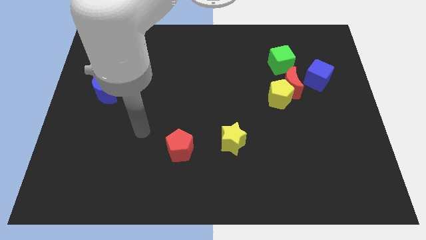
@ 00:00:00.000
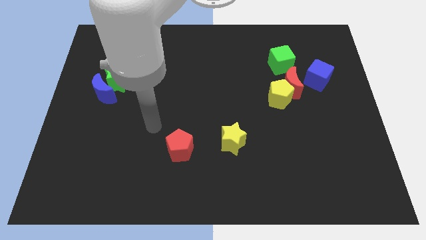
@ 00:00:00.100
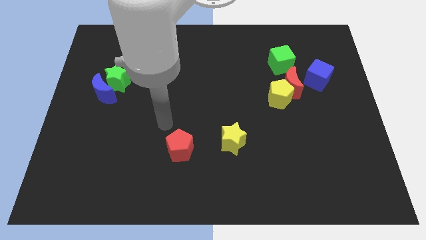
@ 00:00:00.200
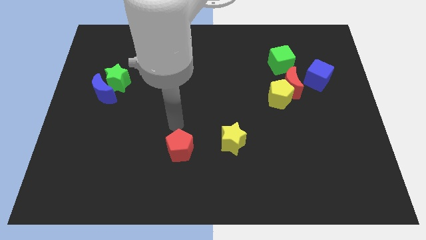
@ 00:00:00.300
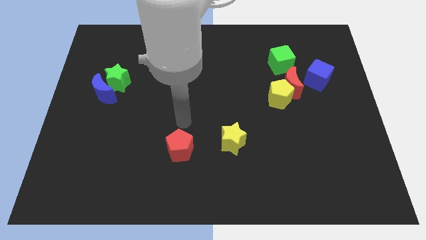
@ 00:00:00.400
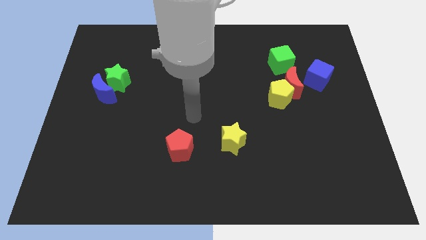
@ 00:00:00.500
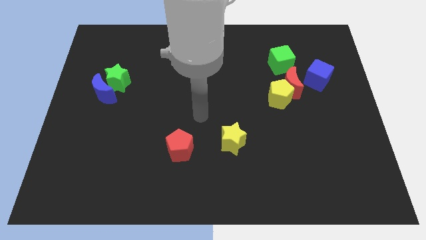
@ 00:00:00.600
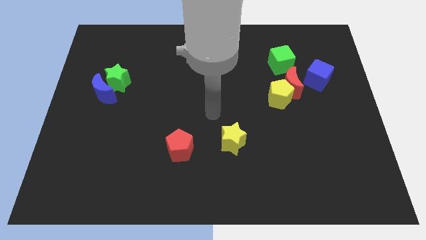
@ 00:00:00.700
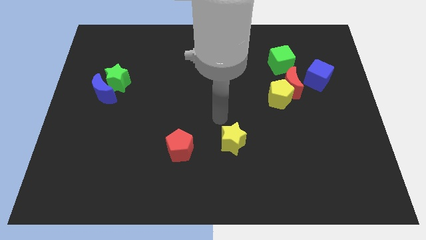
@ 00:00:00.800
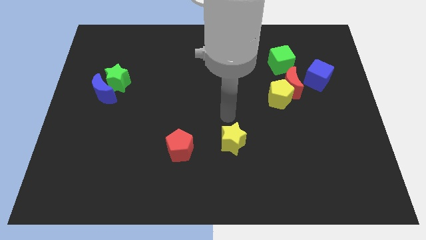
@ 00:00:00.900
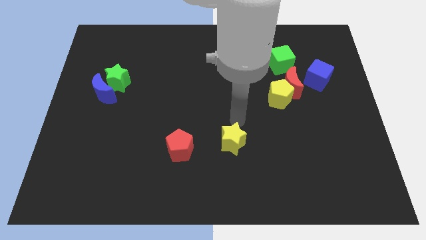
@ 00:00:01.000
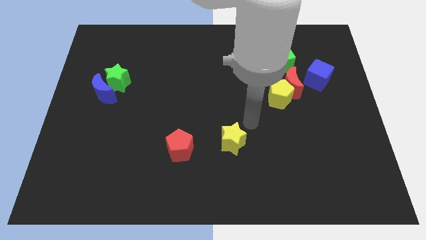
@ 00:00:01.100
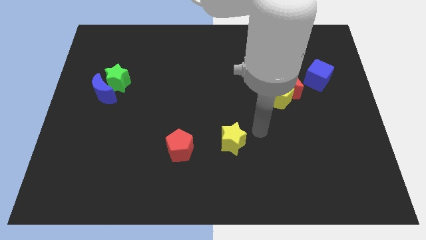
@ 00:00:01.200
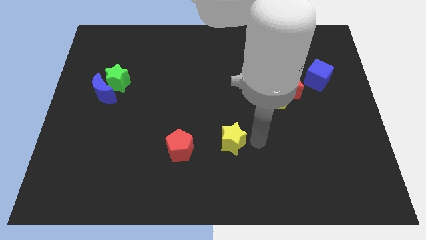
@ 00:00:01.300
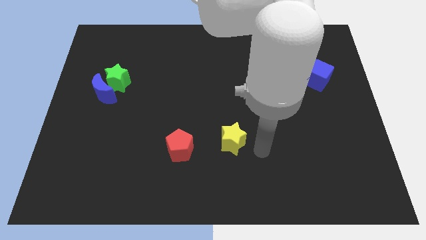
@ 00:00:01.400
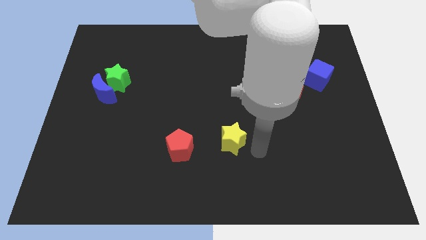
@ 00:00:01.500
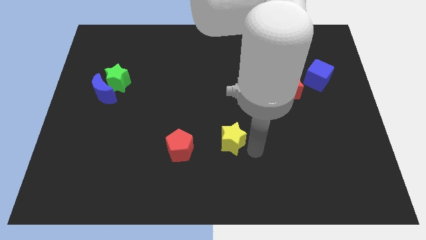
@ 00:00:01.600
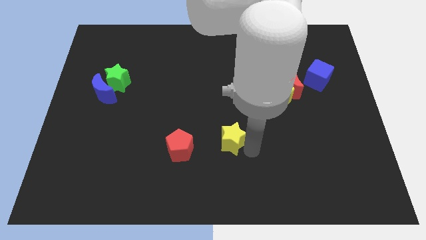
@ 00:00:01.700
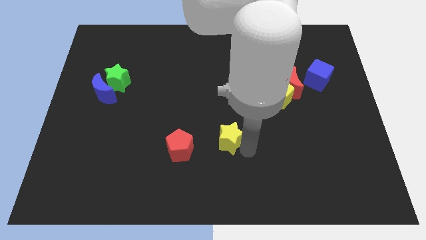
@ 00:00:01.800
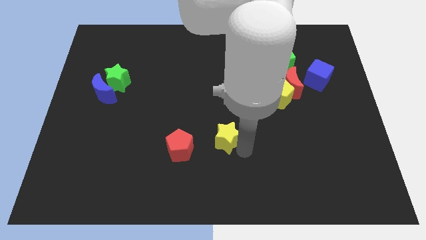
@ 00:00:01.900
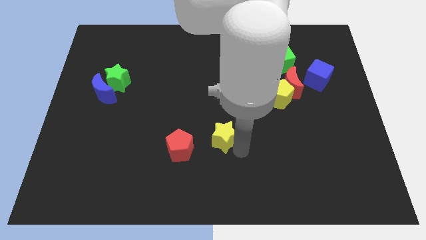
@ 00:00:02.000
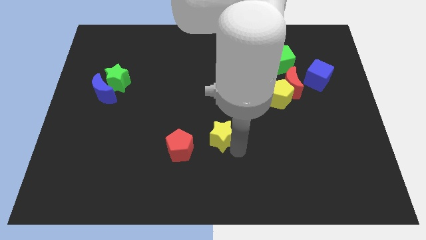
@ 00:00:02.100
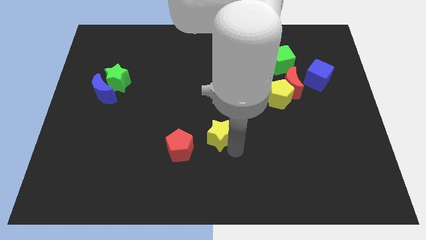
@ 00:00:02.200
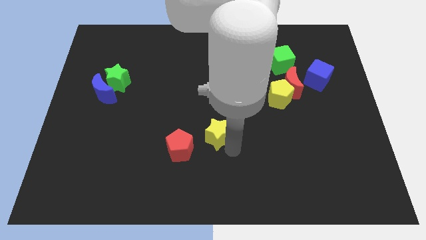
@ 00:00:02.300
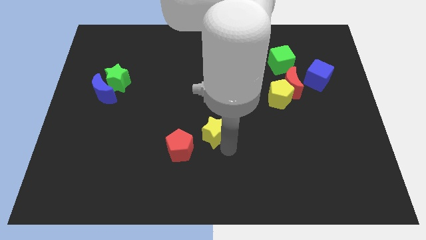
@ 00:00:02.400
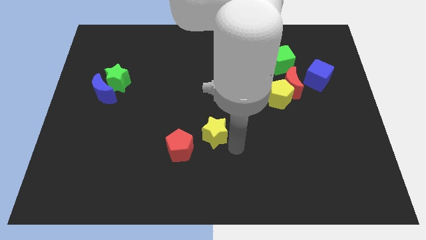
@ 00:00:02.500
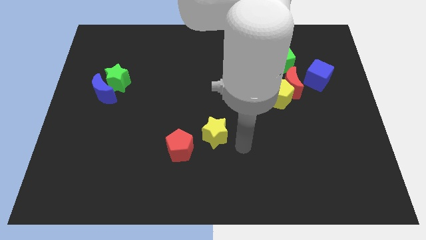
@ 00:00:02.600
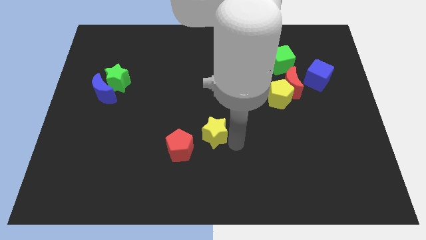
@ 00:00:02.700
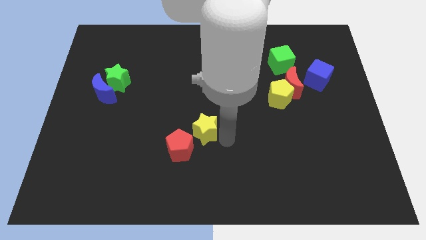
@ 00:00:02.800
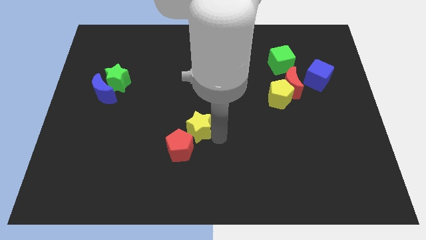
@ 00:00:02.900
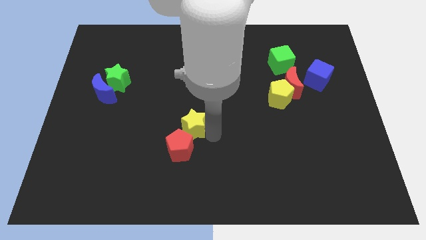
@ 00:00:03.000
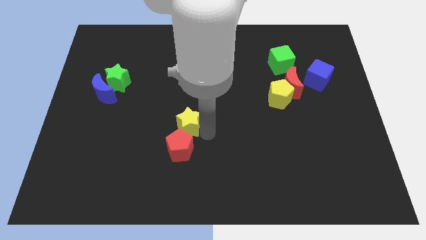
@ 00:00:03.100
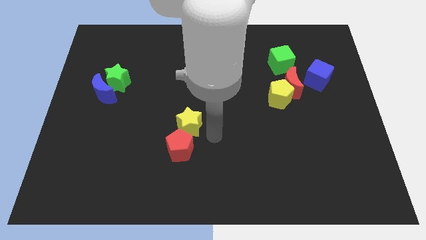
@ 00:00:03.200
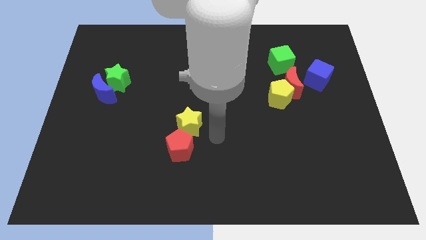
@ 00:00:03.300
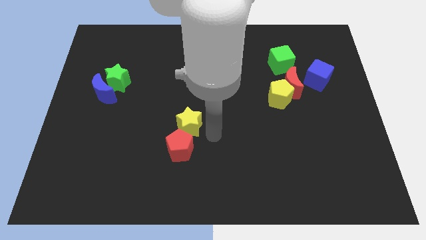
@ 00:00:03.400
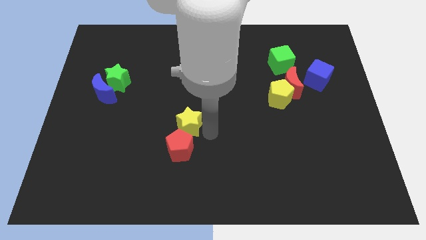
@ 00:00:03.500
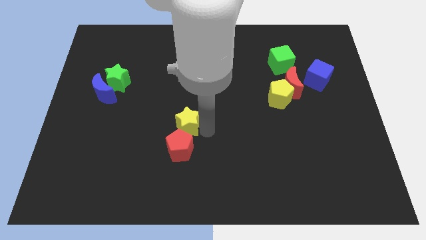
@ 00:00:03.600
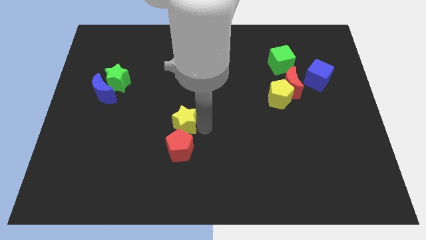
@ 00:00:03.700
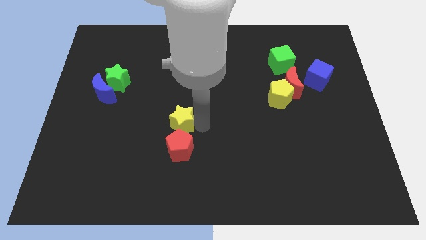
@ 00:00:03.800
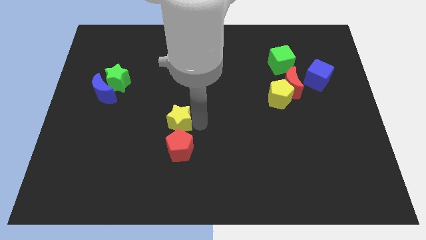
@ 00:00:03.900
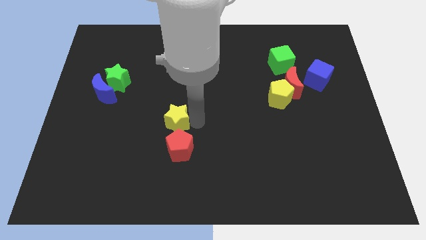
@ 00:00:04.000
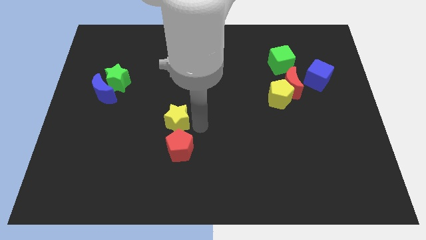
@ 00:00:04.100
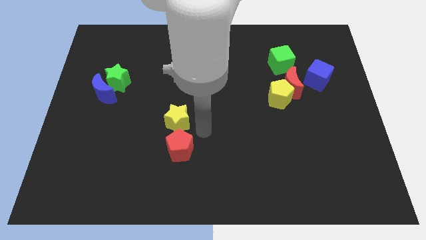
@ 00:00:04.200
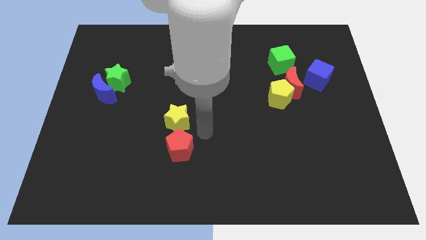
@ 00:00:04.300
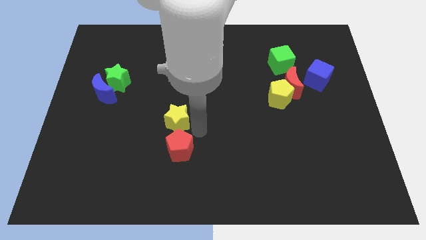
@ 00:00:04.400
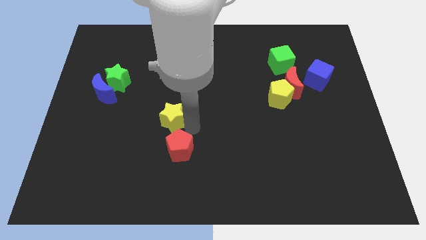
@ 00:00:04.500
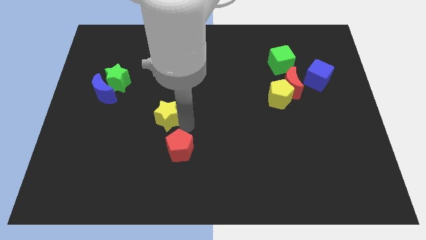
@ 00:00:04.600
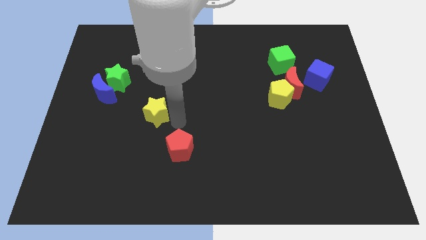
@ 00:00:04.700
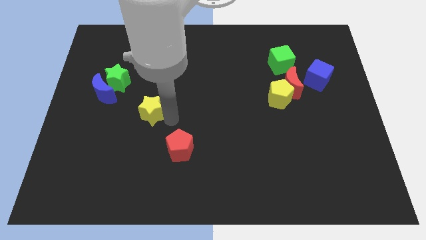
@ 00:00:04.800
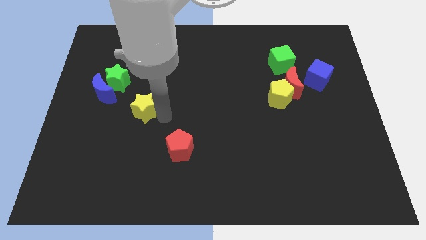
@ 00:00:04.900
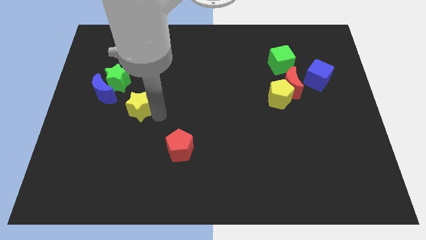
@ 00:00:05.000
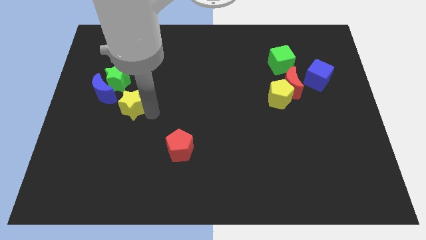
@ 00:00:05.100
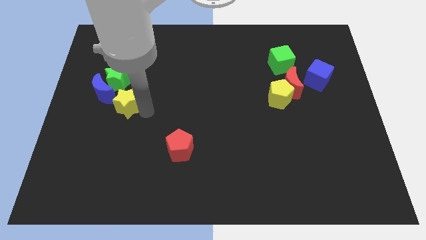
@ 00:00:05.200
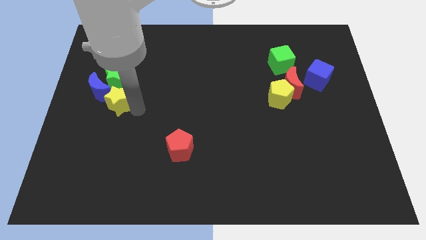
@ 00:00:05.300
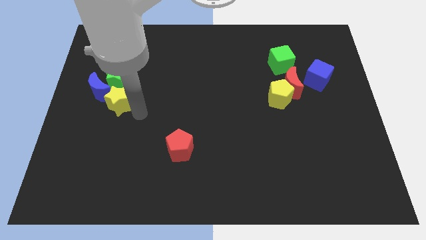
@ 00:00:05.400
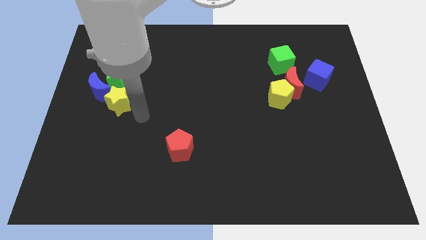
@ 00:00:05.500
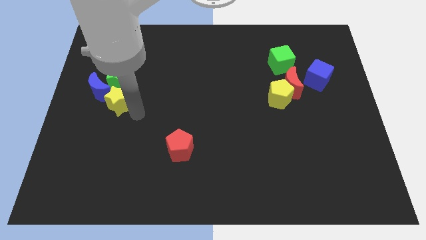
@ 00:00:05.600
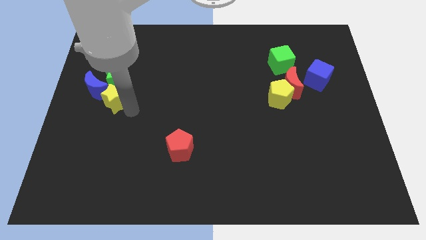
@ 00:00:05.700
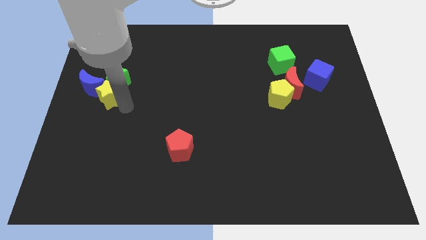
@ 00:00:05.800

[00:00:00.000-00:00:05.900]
move the yellow star close to the blue moon

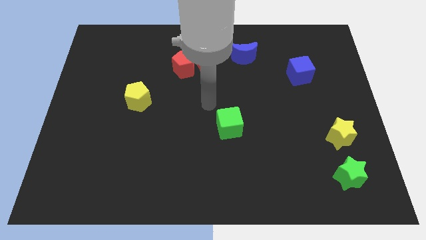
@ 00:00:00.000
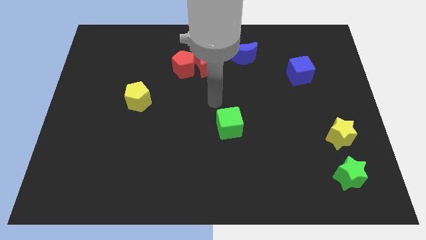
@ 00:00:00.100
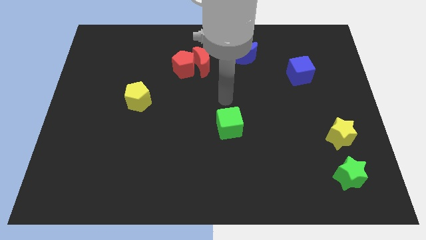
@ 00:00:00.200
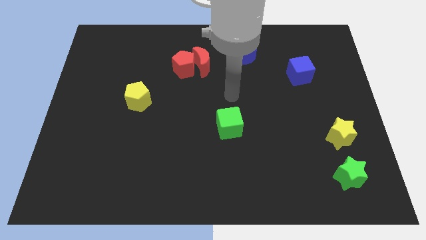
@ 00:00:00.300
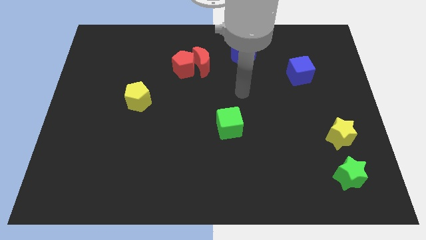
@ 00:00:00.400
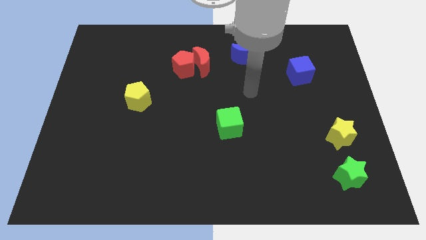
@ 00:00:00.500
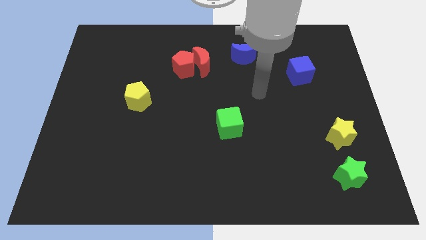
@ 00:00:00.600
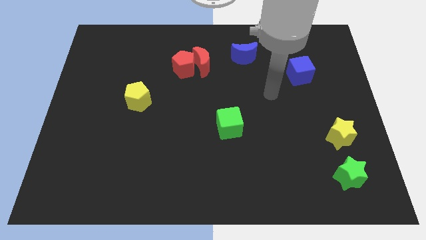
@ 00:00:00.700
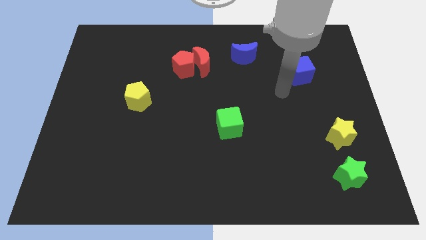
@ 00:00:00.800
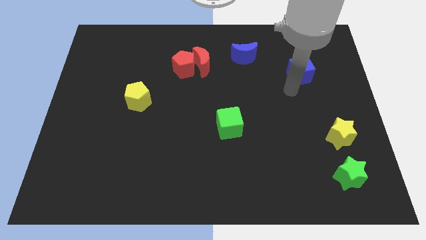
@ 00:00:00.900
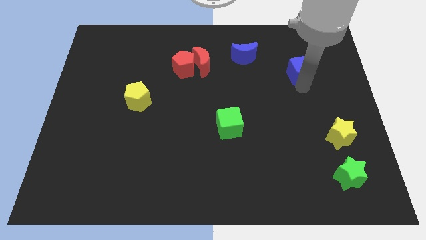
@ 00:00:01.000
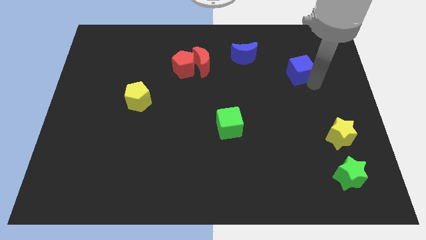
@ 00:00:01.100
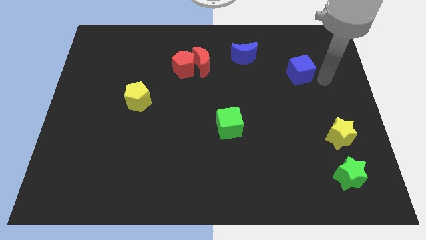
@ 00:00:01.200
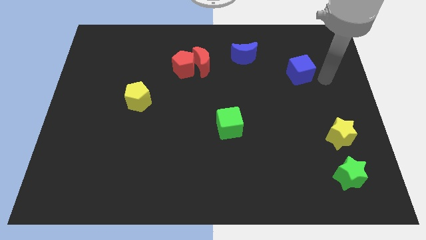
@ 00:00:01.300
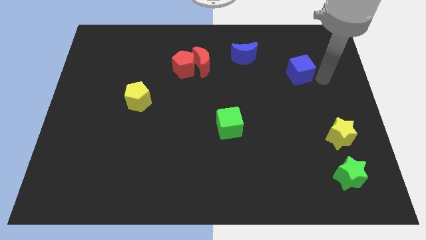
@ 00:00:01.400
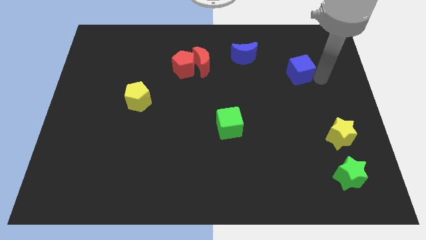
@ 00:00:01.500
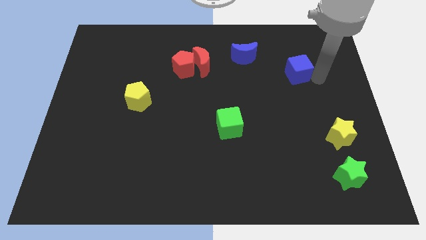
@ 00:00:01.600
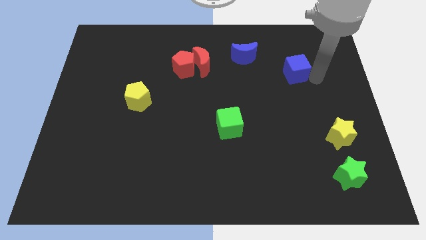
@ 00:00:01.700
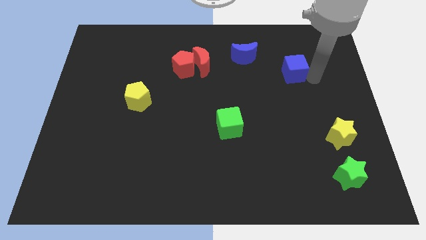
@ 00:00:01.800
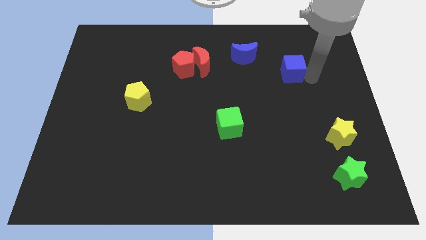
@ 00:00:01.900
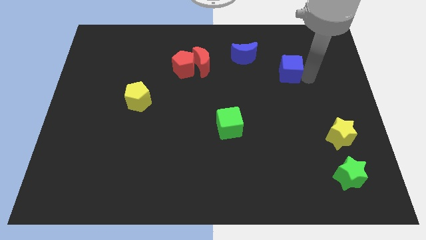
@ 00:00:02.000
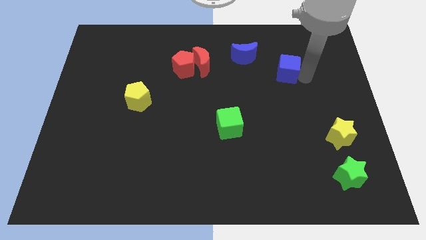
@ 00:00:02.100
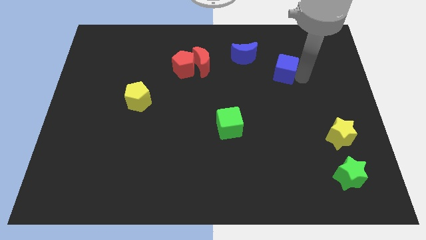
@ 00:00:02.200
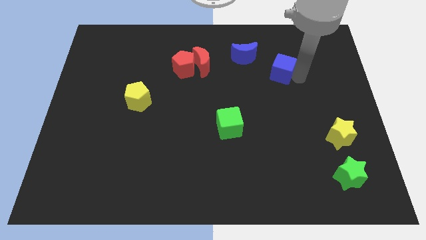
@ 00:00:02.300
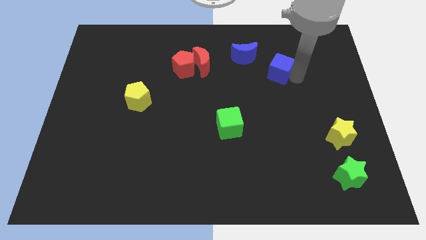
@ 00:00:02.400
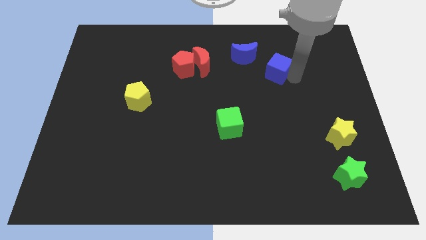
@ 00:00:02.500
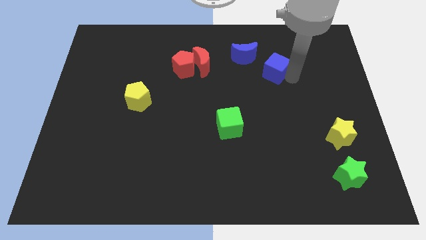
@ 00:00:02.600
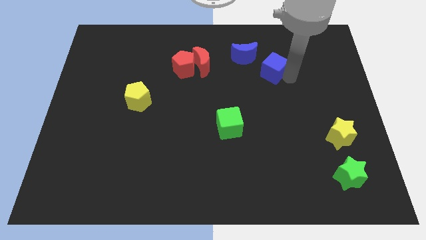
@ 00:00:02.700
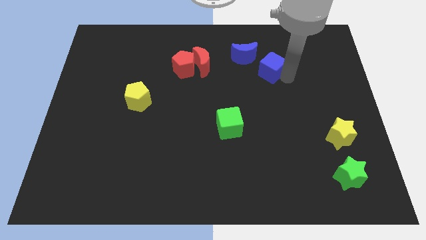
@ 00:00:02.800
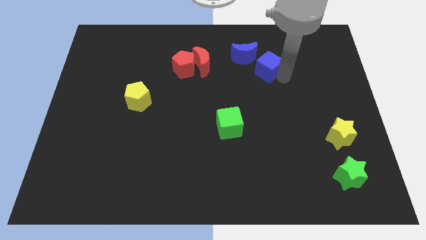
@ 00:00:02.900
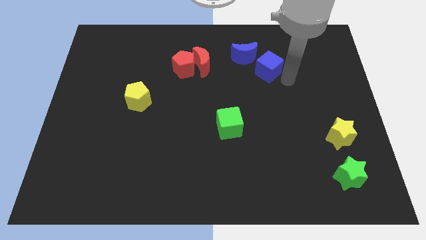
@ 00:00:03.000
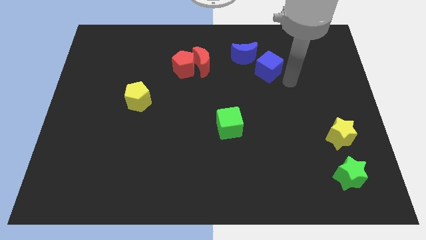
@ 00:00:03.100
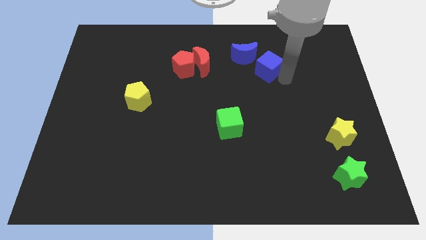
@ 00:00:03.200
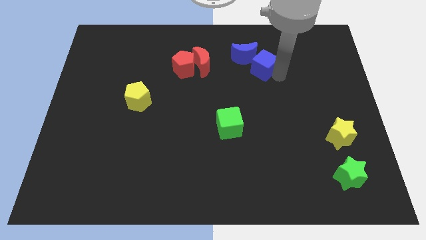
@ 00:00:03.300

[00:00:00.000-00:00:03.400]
push the blue cube close to the blue moon
